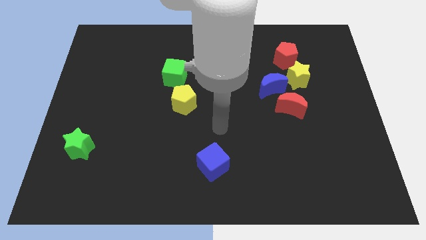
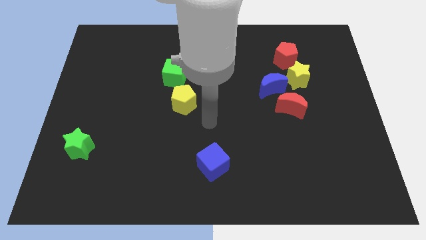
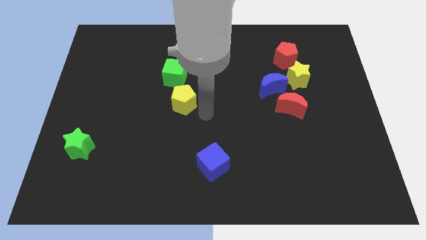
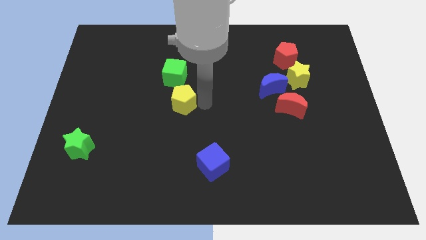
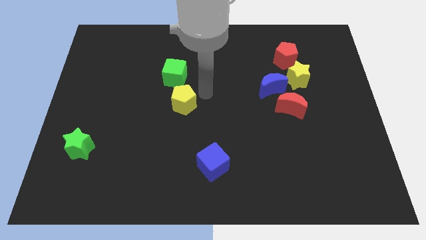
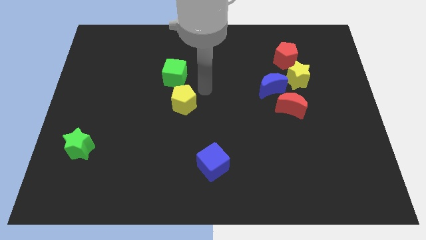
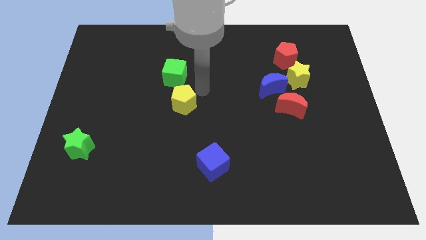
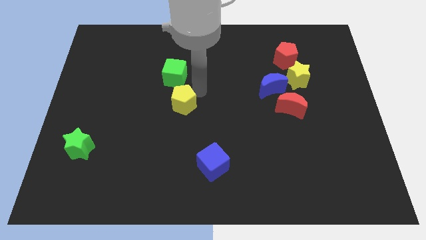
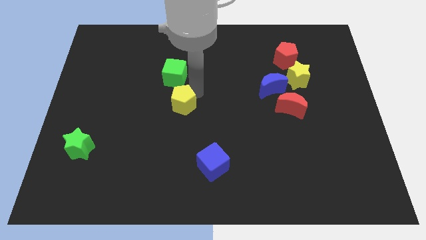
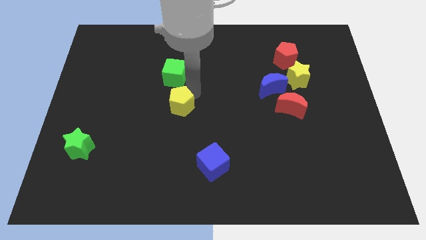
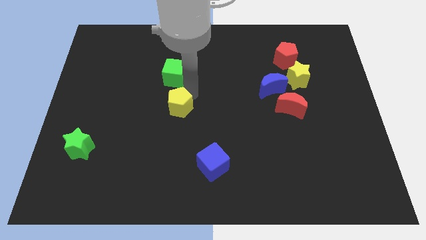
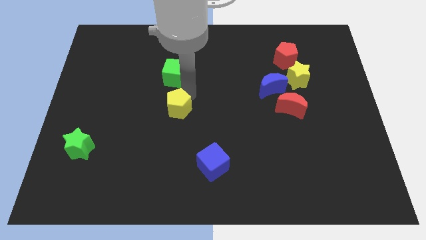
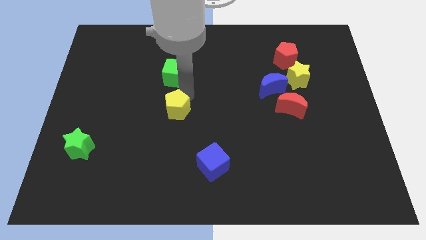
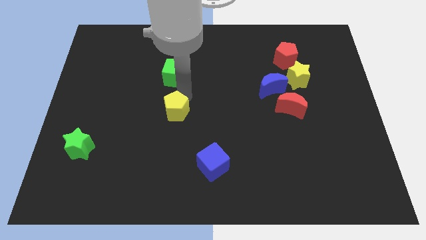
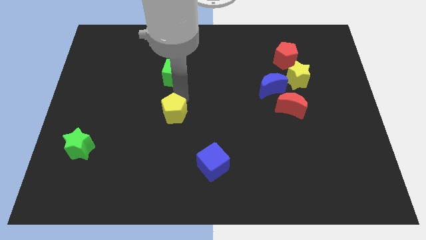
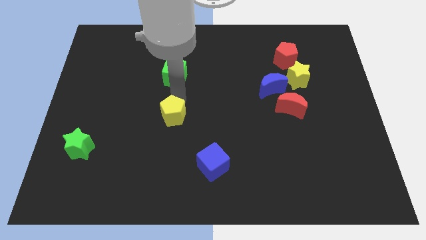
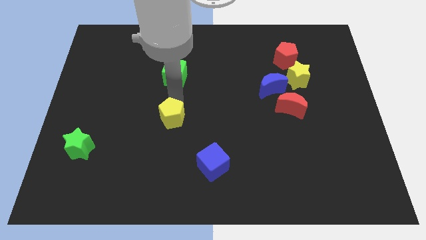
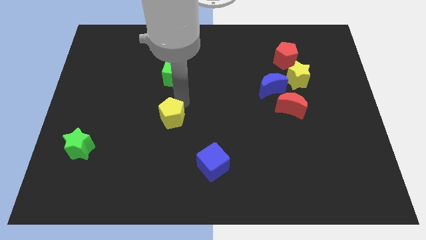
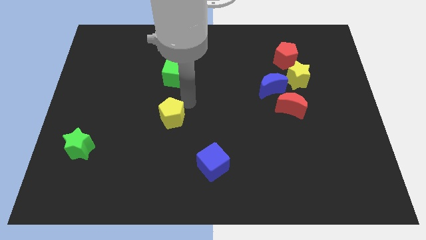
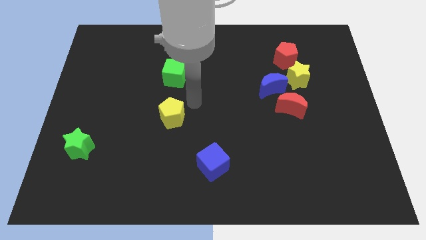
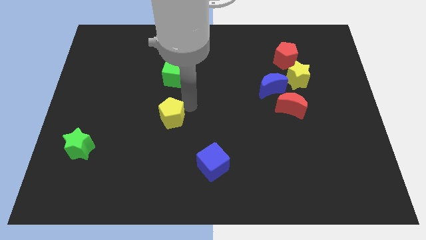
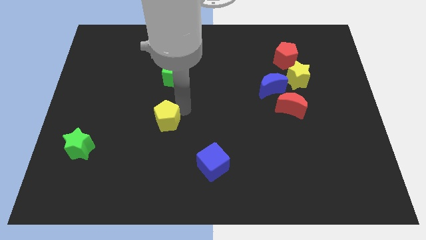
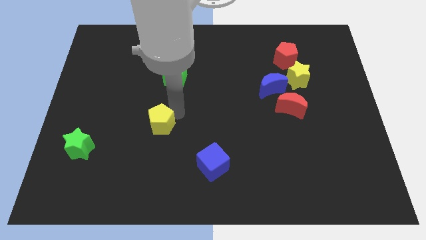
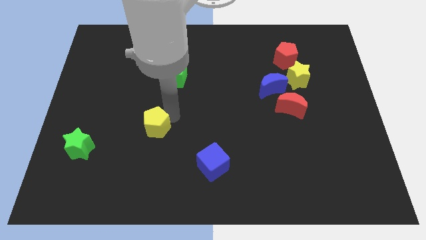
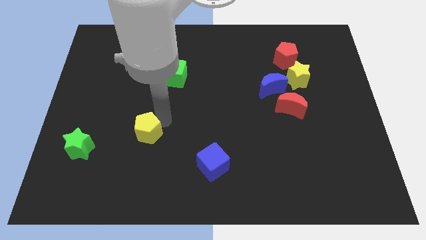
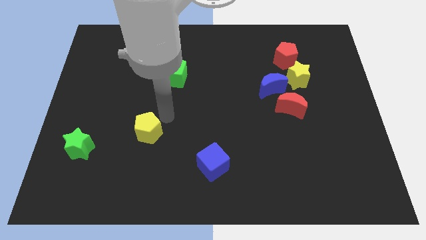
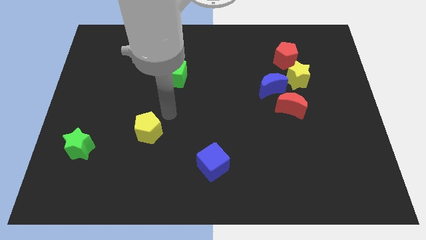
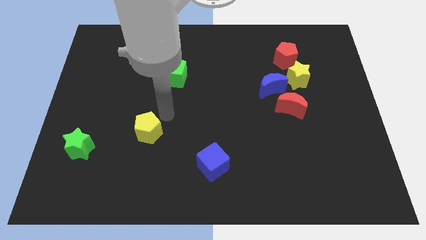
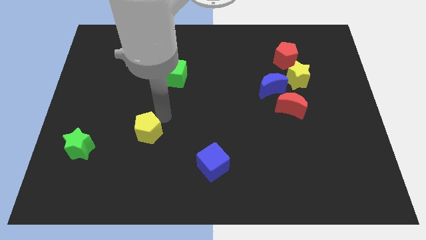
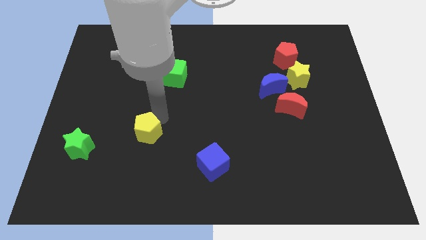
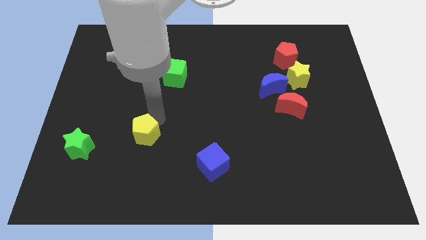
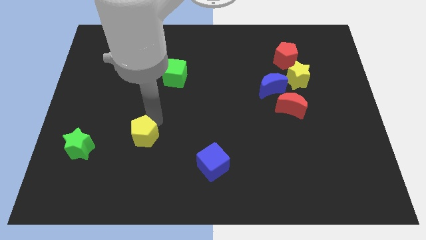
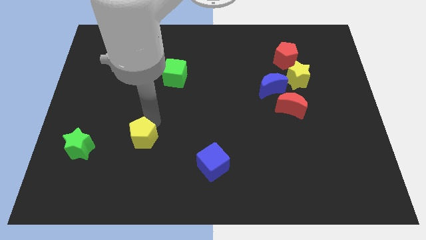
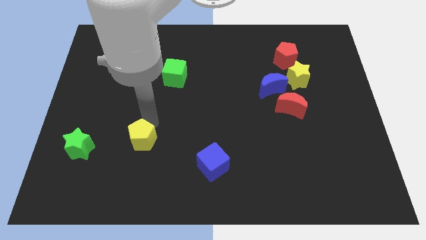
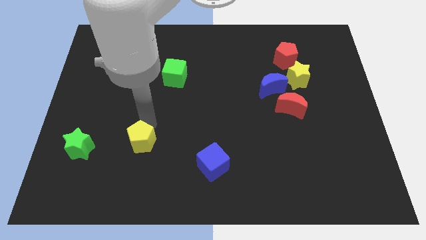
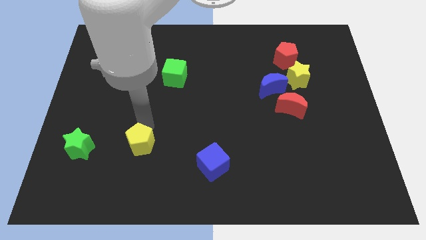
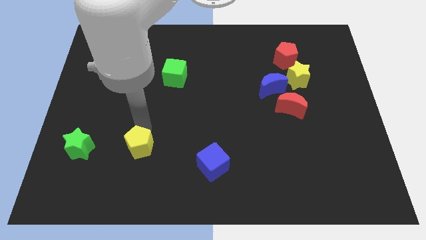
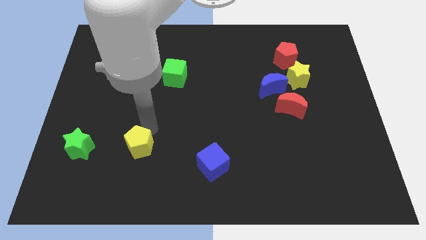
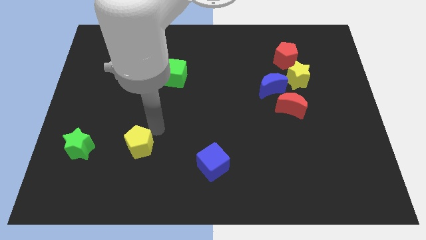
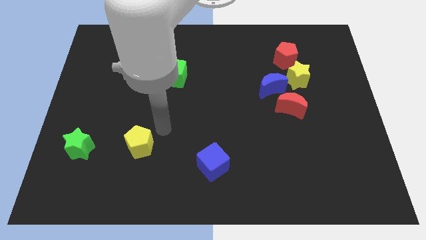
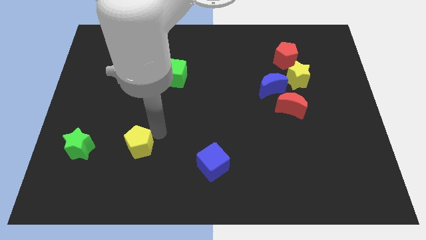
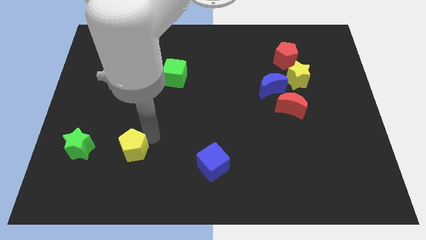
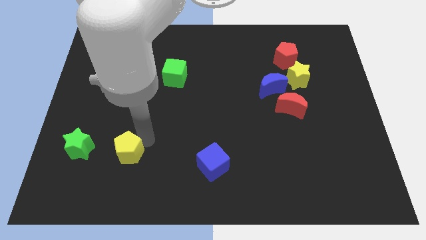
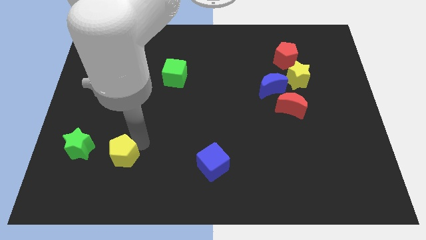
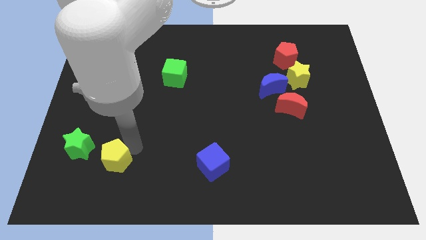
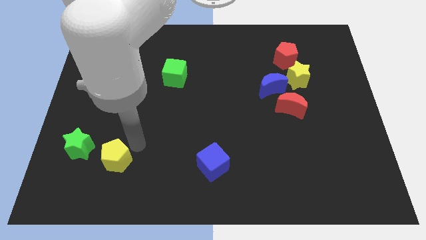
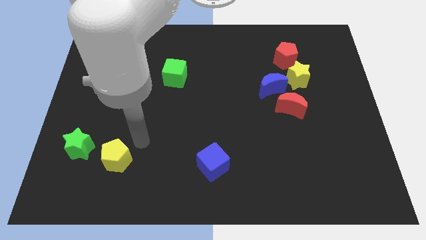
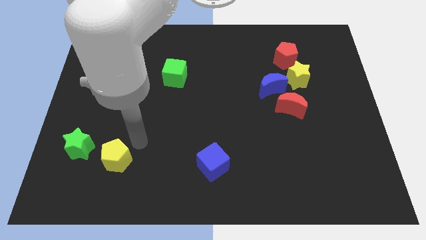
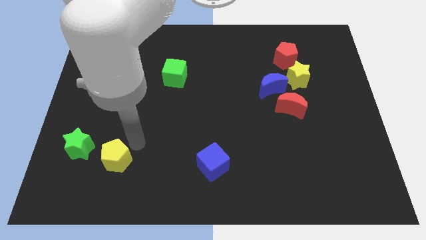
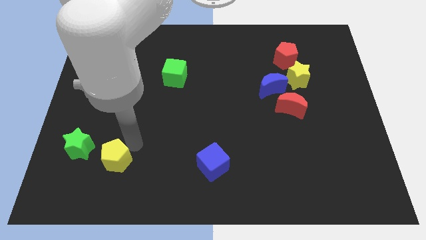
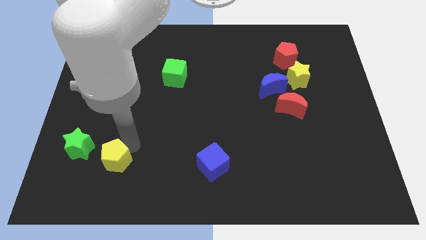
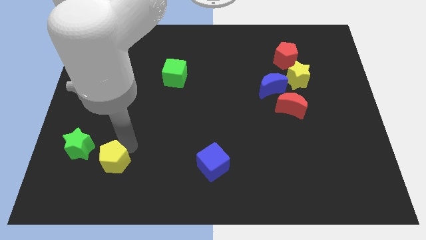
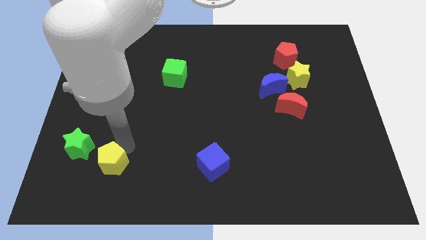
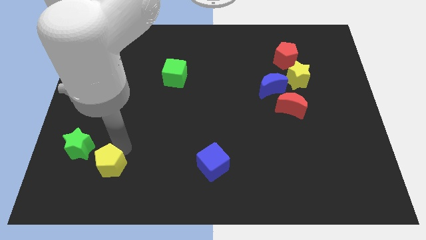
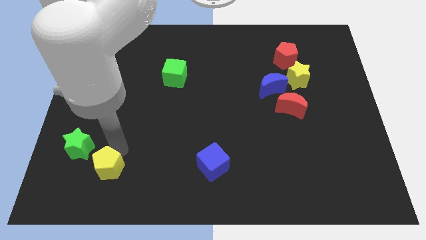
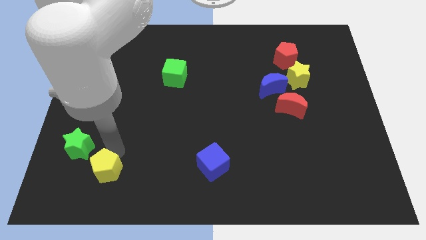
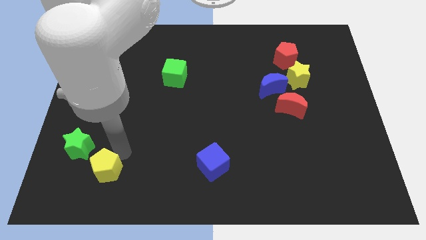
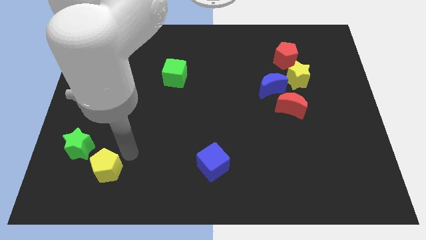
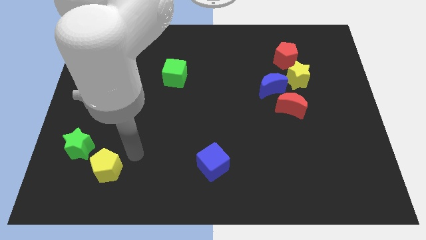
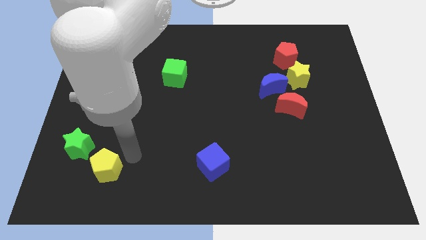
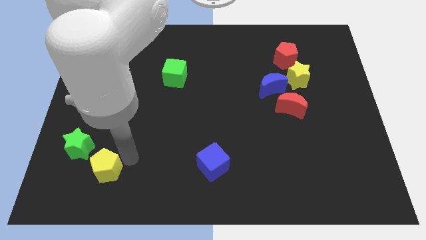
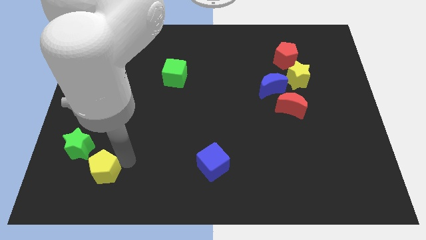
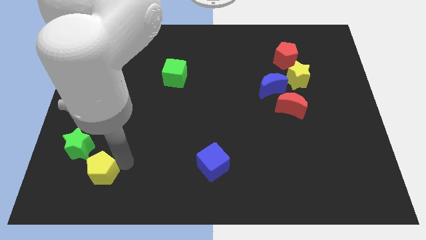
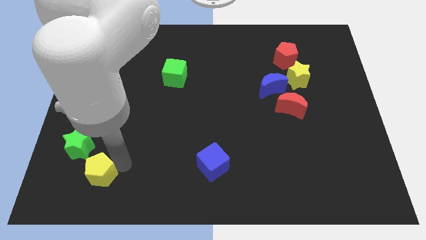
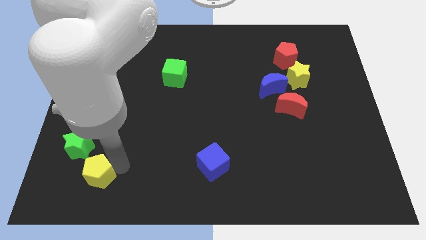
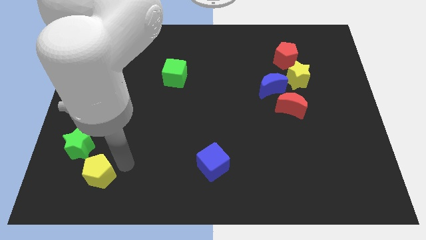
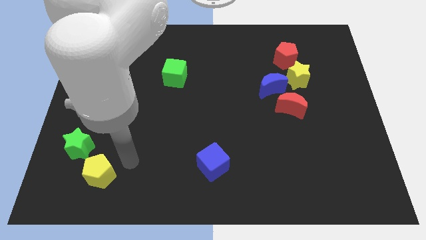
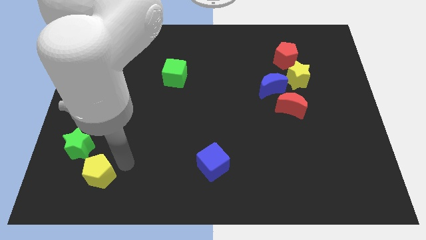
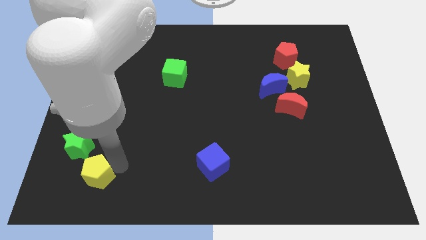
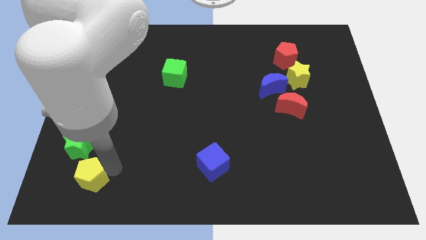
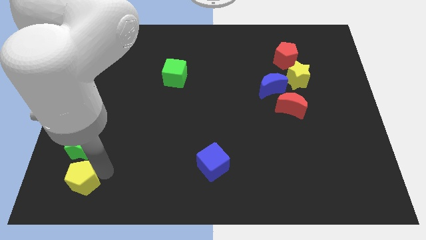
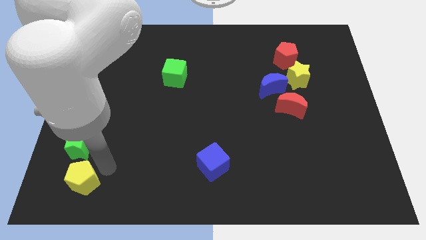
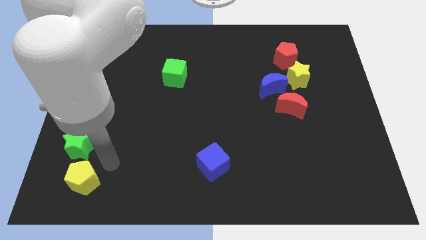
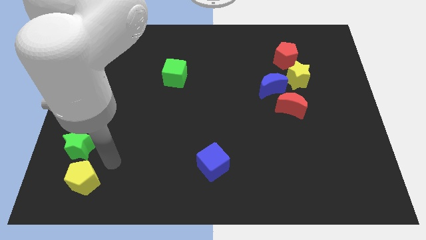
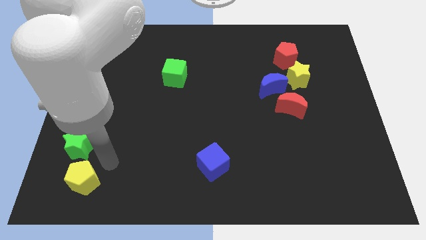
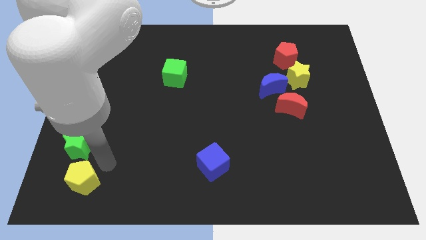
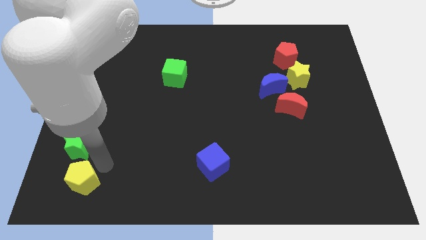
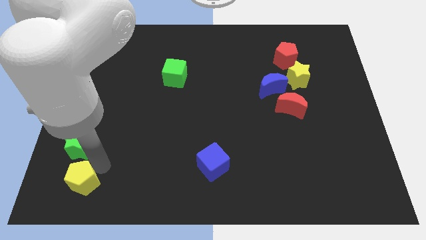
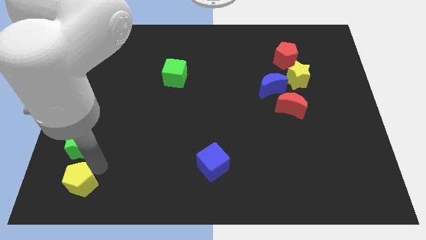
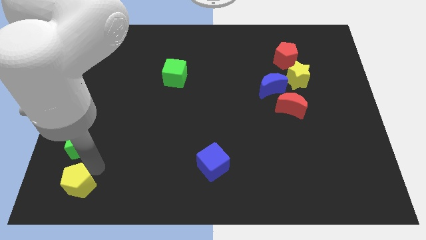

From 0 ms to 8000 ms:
slide the yellow pentagon to the lower left corner
